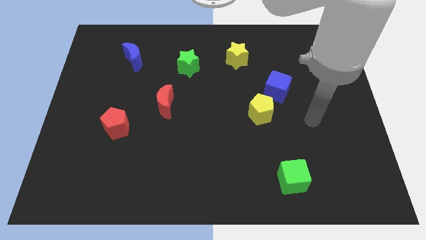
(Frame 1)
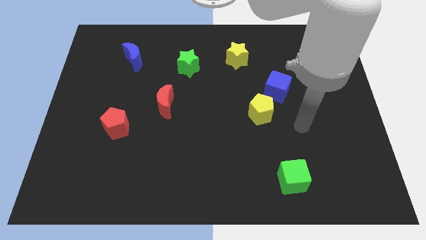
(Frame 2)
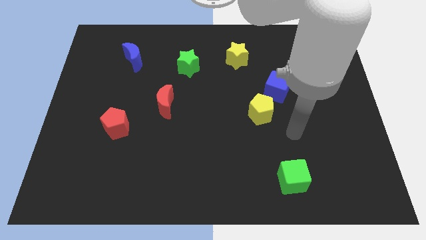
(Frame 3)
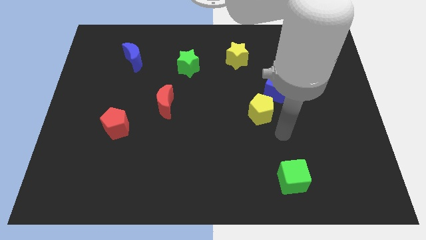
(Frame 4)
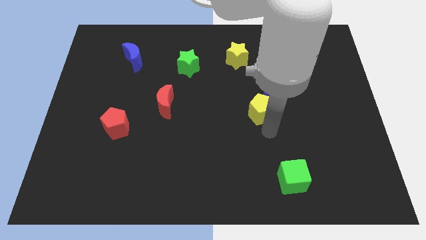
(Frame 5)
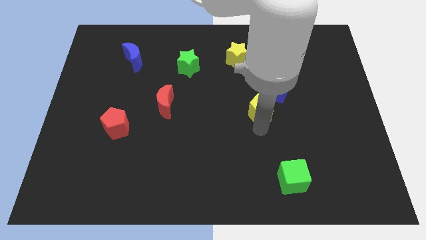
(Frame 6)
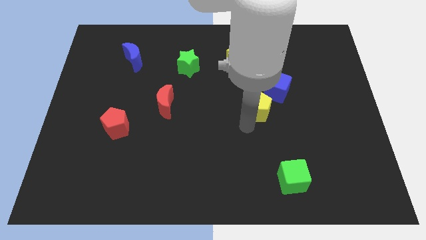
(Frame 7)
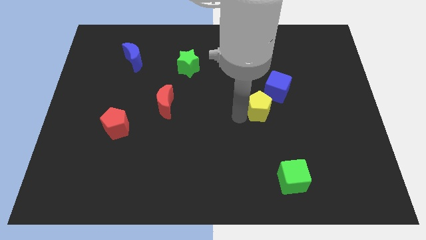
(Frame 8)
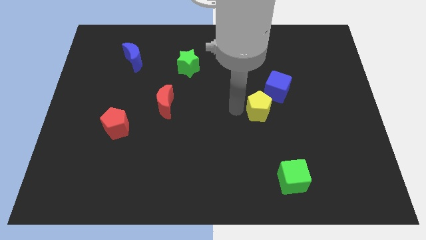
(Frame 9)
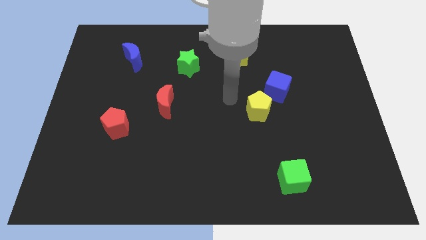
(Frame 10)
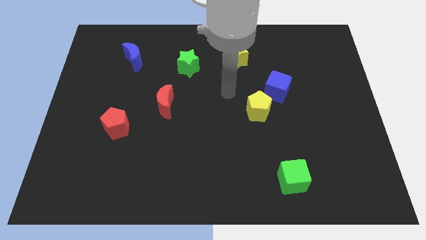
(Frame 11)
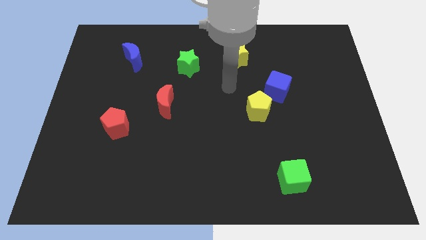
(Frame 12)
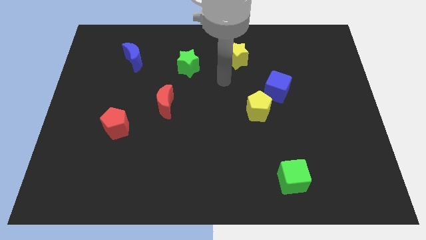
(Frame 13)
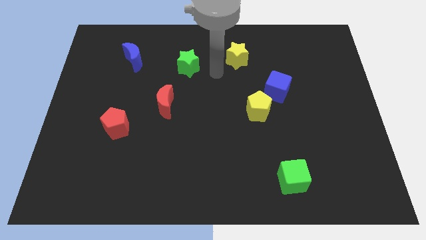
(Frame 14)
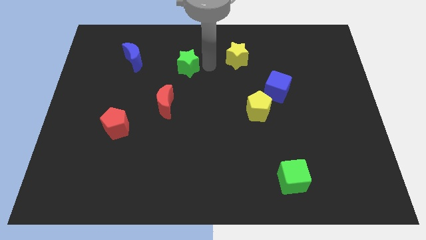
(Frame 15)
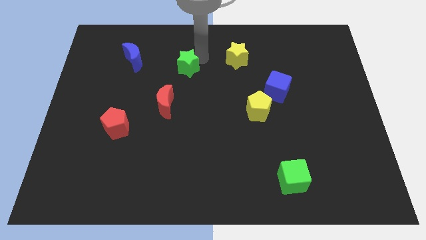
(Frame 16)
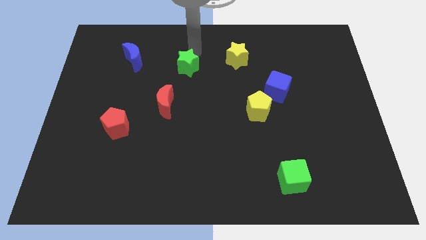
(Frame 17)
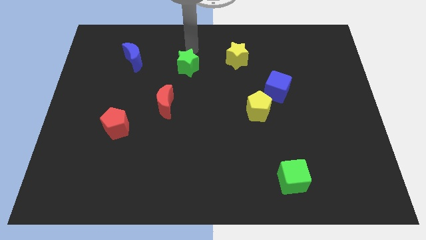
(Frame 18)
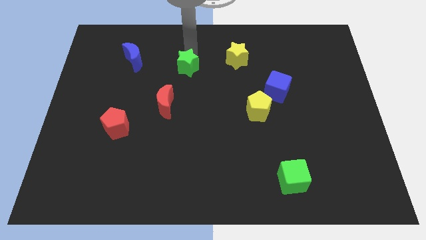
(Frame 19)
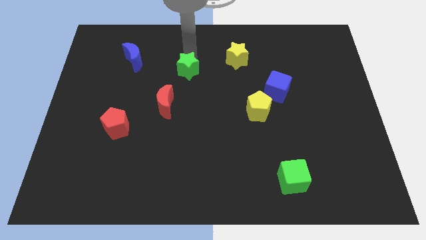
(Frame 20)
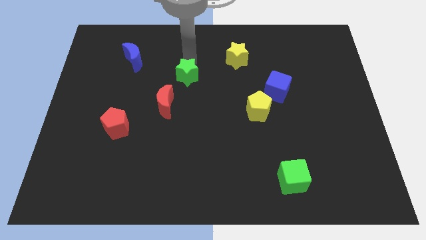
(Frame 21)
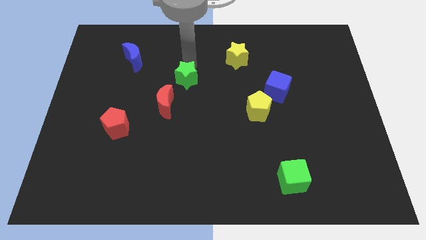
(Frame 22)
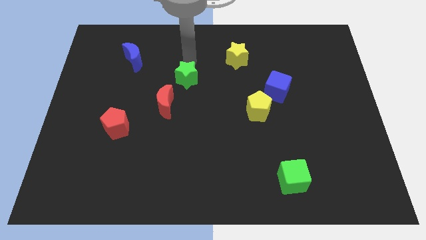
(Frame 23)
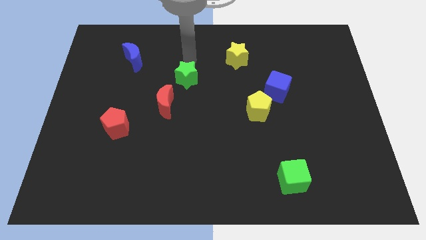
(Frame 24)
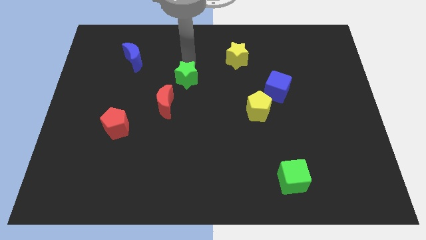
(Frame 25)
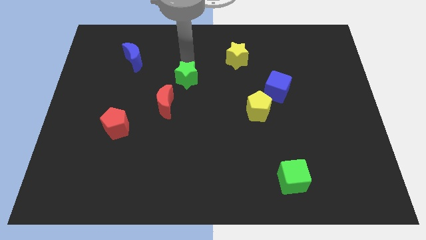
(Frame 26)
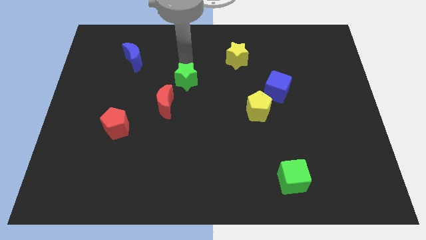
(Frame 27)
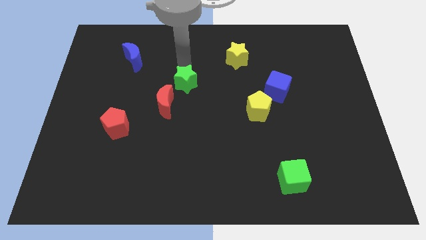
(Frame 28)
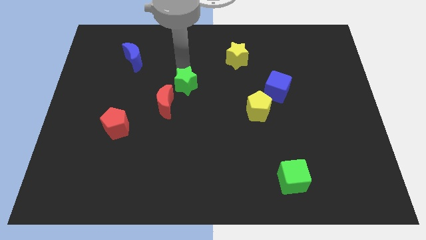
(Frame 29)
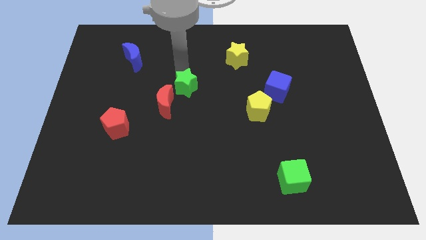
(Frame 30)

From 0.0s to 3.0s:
slide the green star downwards slightly

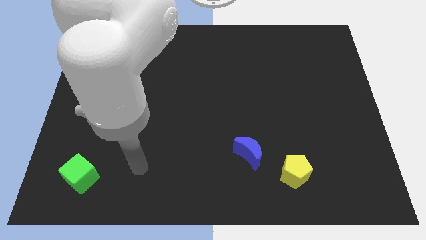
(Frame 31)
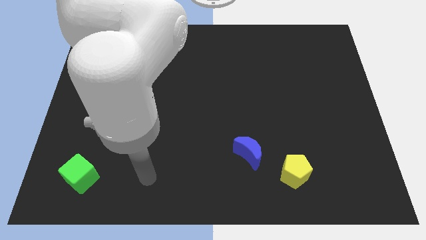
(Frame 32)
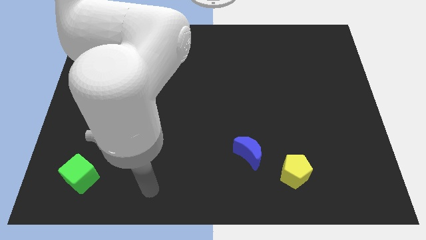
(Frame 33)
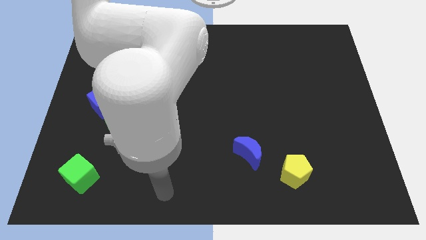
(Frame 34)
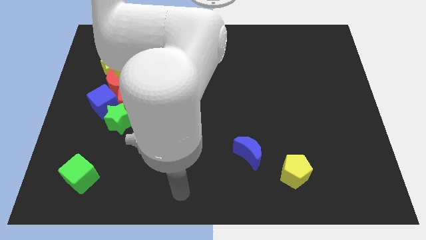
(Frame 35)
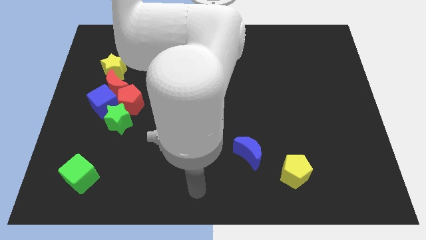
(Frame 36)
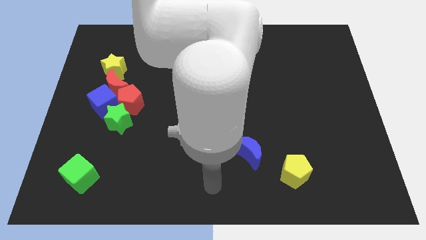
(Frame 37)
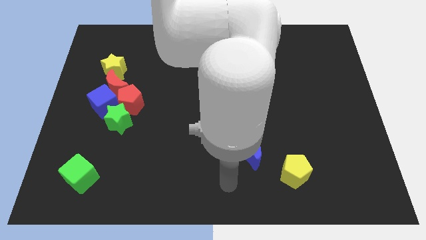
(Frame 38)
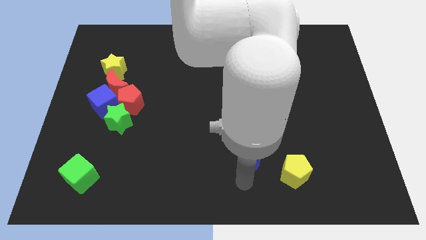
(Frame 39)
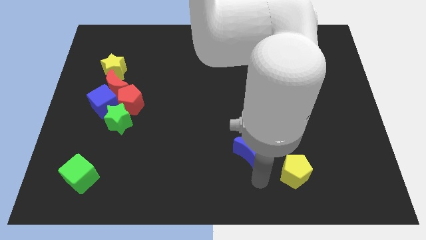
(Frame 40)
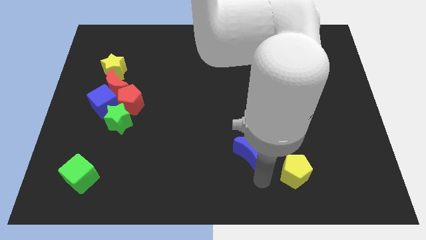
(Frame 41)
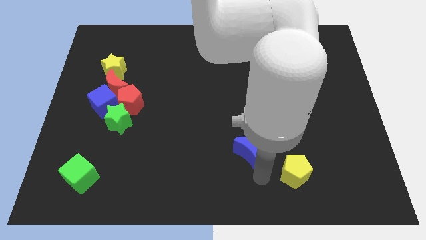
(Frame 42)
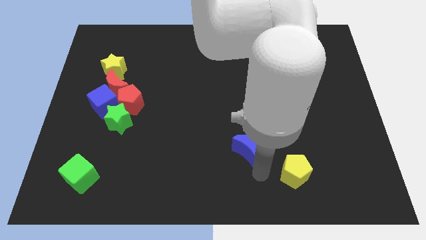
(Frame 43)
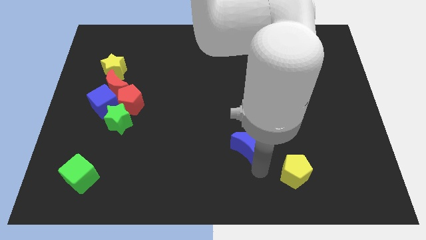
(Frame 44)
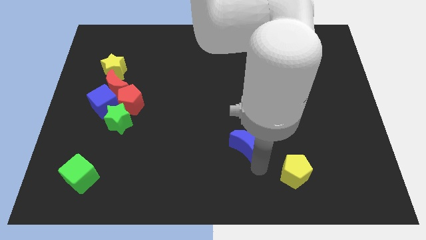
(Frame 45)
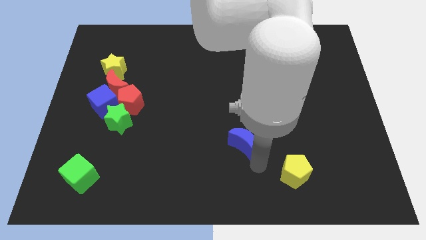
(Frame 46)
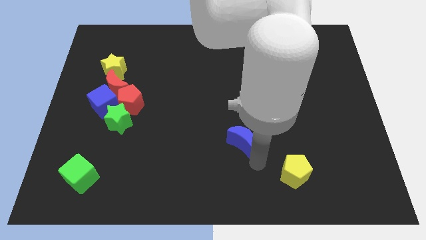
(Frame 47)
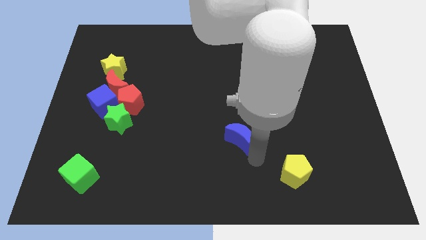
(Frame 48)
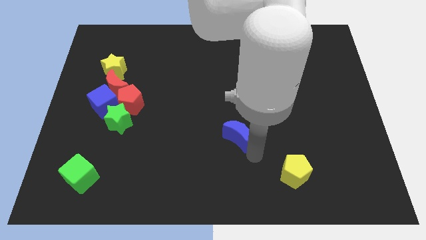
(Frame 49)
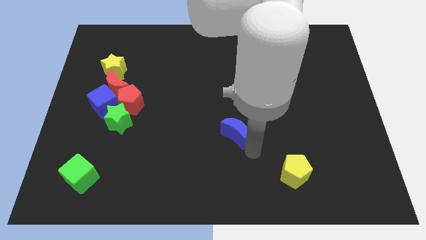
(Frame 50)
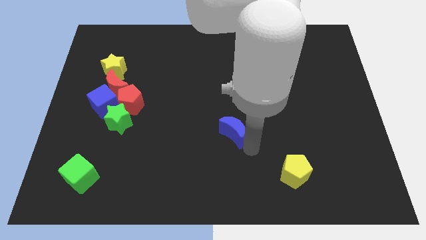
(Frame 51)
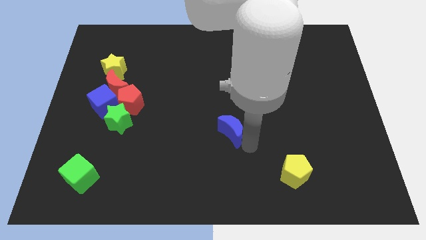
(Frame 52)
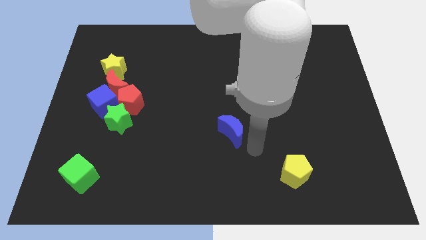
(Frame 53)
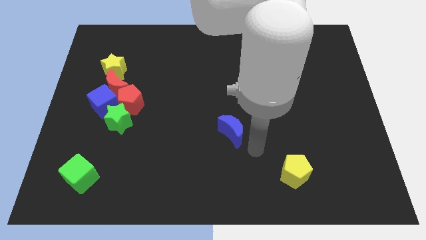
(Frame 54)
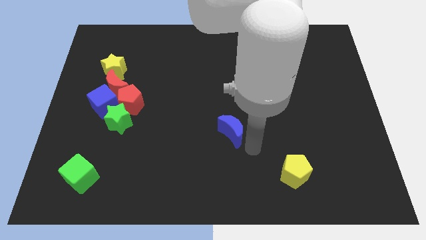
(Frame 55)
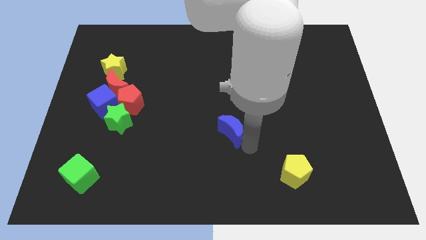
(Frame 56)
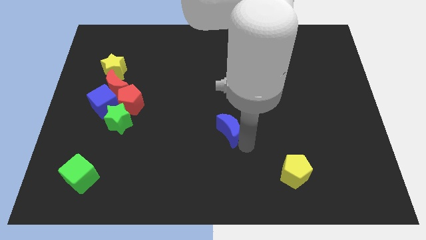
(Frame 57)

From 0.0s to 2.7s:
slide the blue moon up and left diagonally somewhat

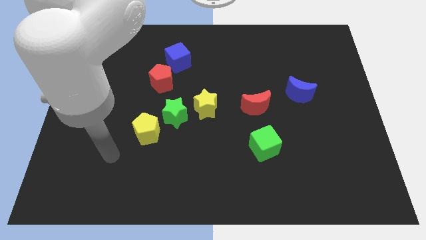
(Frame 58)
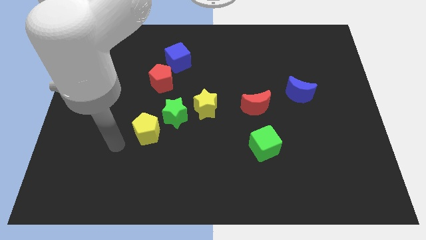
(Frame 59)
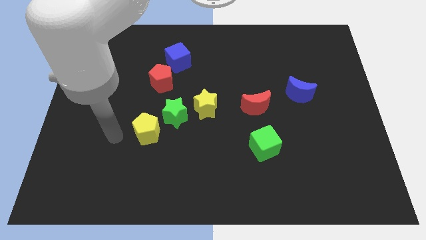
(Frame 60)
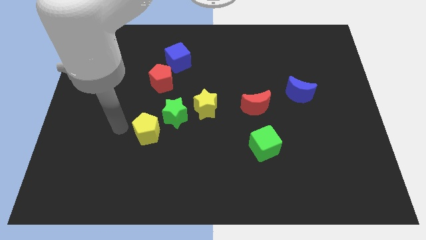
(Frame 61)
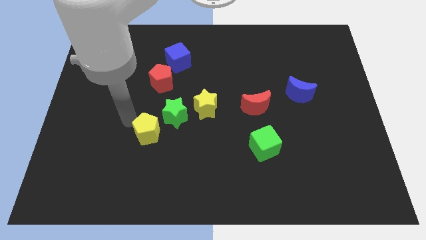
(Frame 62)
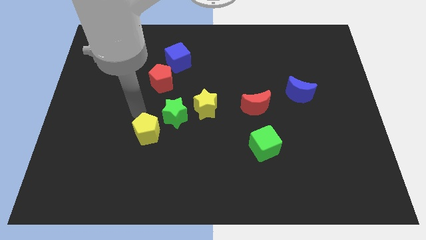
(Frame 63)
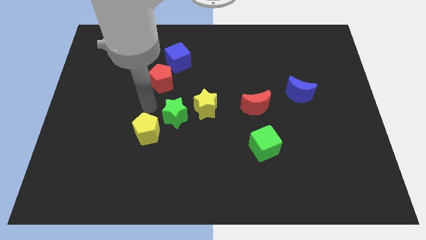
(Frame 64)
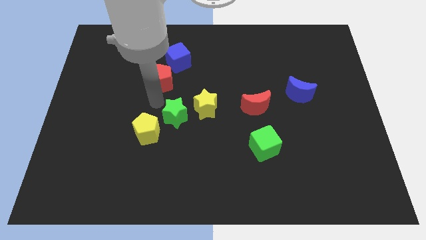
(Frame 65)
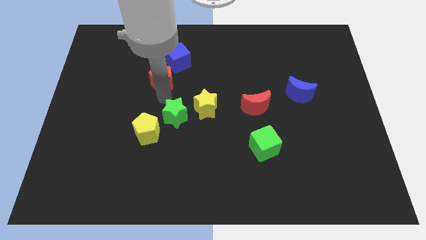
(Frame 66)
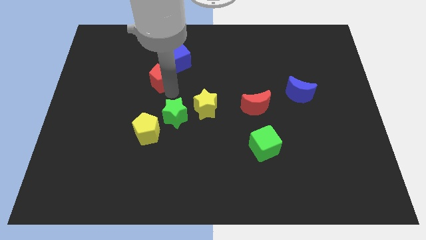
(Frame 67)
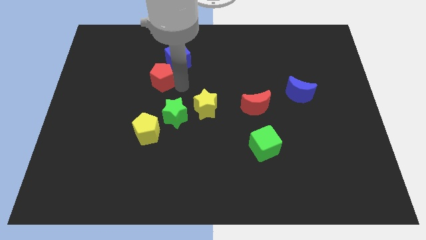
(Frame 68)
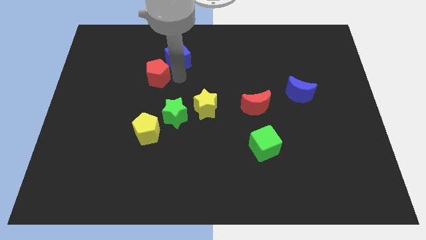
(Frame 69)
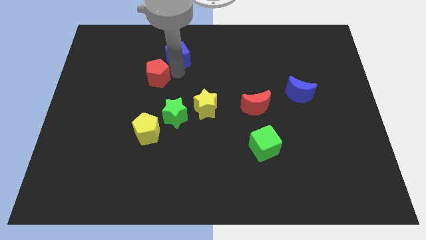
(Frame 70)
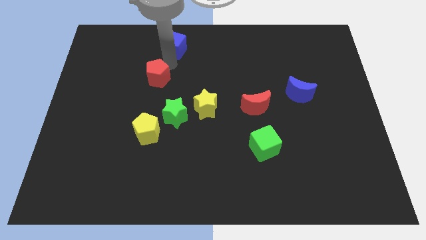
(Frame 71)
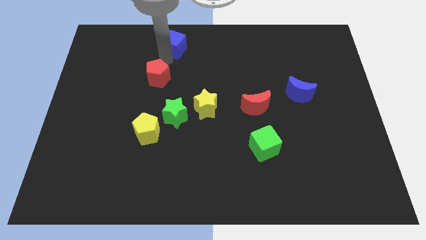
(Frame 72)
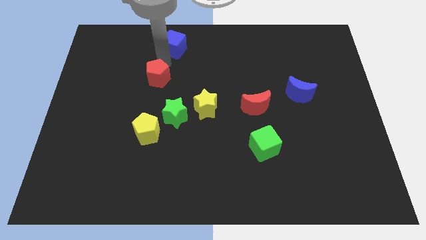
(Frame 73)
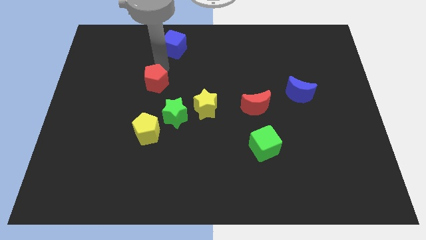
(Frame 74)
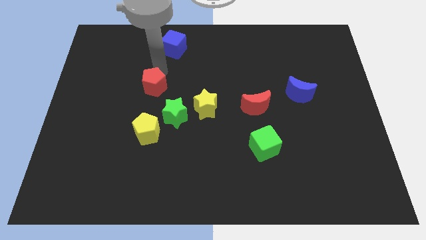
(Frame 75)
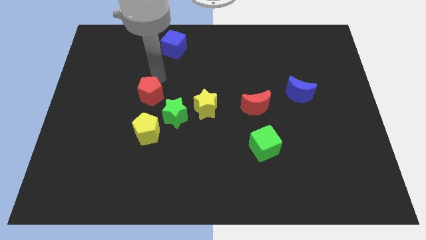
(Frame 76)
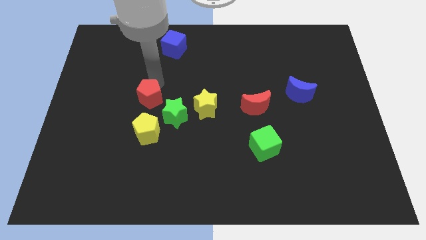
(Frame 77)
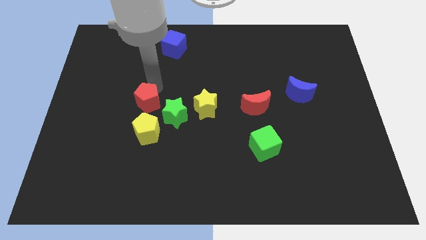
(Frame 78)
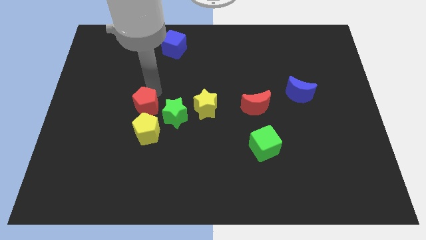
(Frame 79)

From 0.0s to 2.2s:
move the red pentagon a little bit downwards
